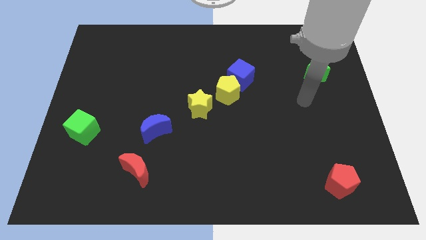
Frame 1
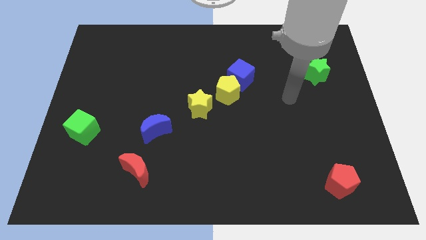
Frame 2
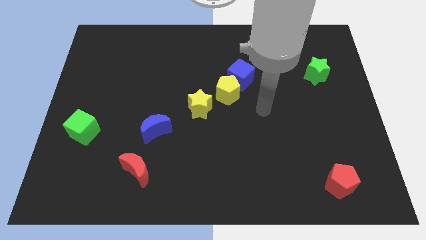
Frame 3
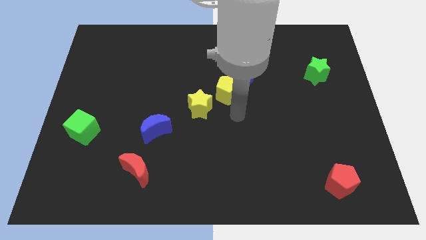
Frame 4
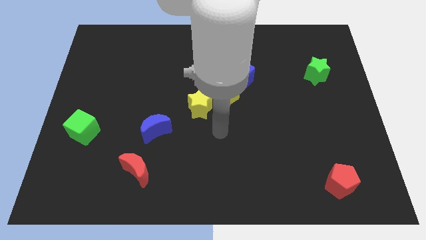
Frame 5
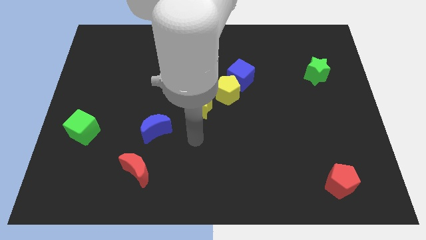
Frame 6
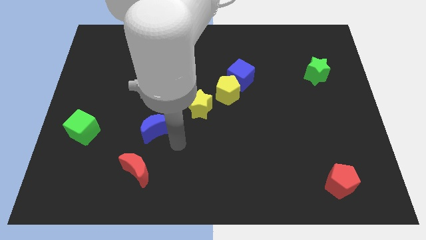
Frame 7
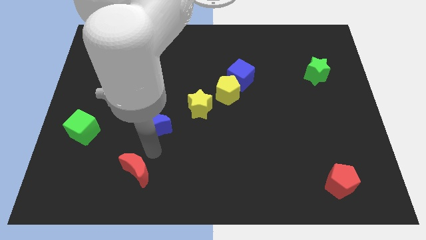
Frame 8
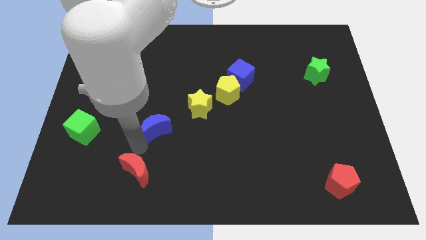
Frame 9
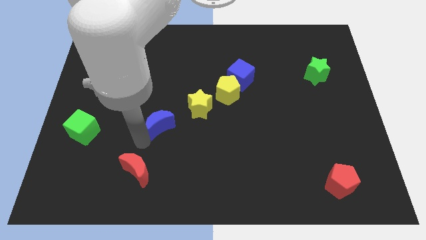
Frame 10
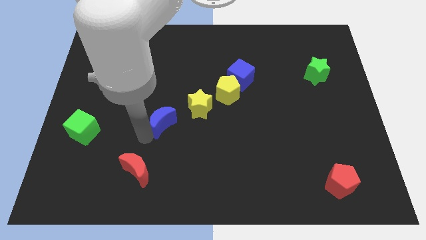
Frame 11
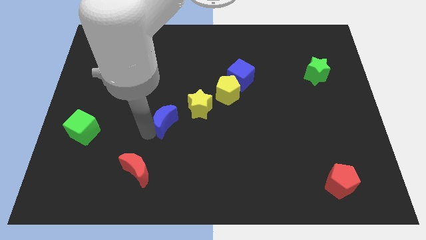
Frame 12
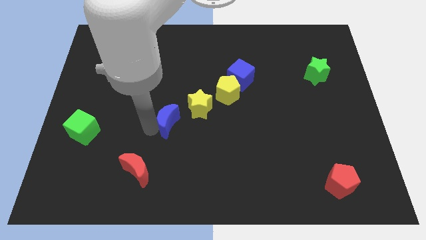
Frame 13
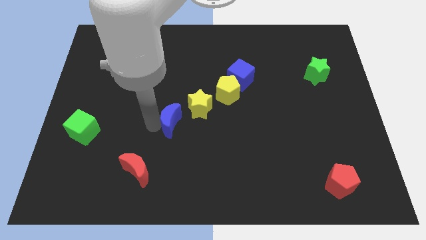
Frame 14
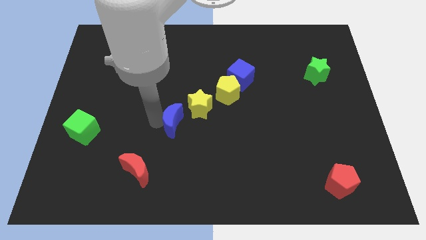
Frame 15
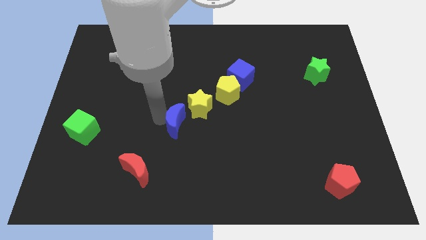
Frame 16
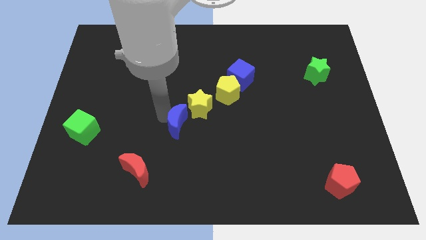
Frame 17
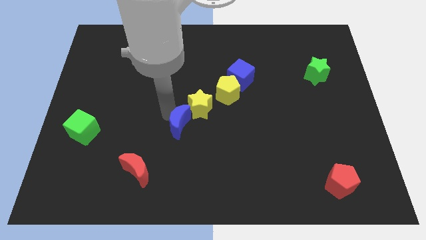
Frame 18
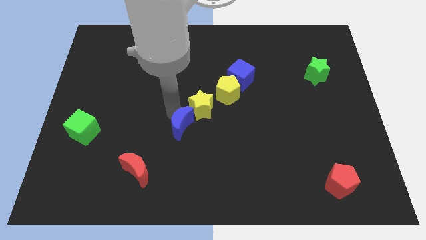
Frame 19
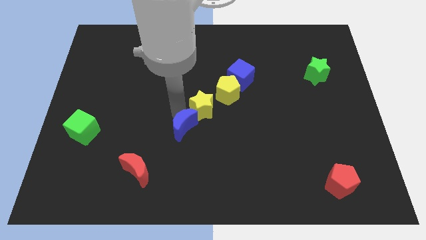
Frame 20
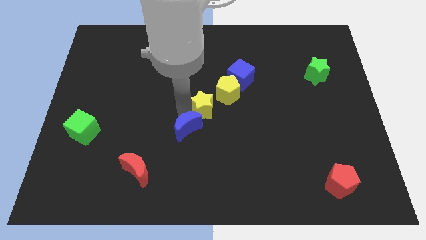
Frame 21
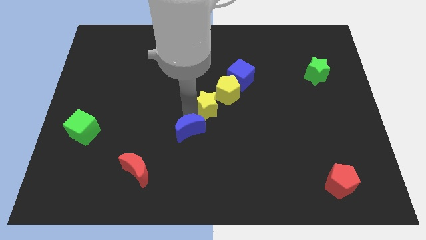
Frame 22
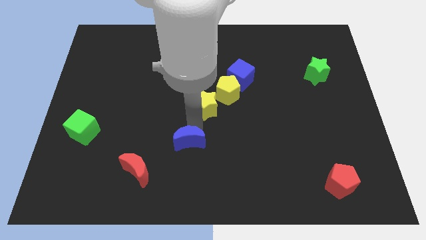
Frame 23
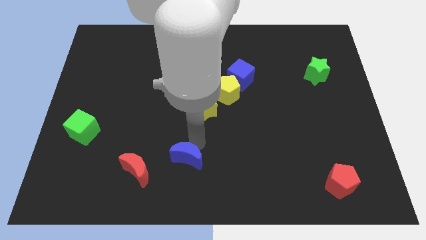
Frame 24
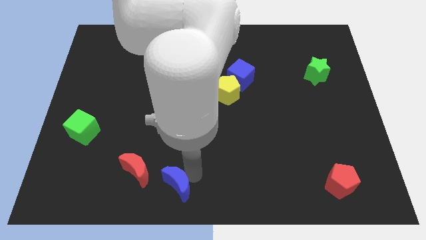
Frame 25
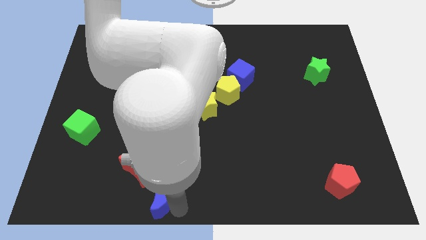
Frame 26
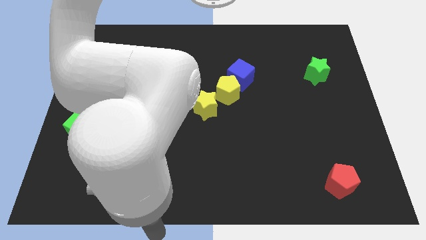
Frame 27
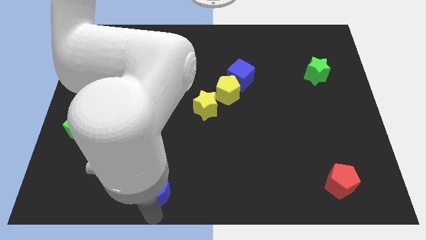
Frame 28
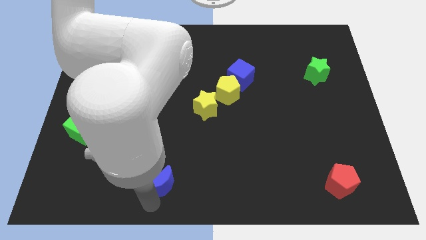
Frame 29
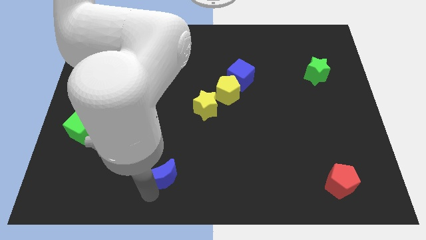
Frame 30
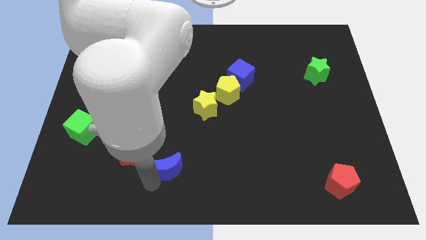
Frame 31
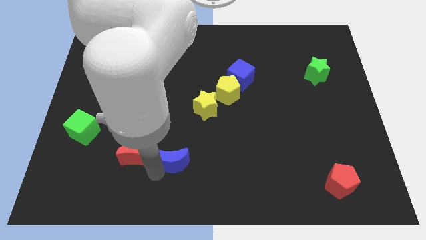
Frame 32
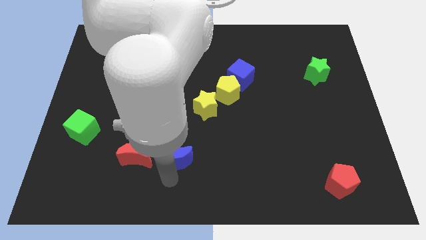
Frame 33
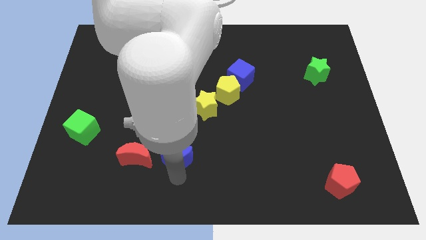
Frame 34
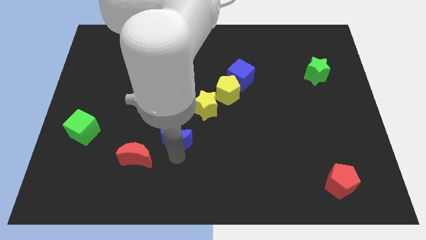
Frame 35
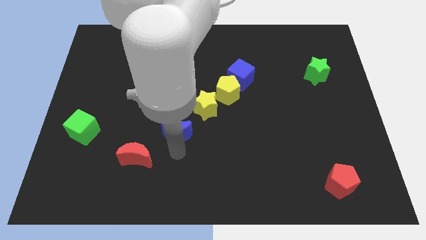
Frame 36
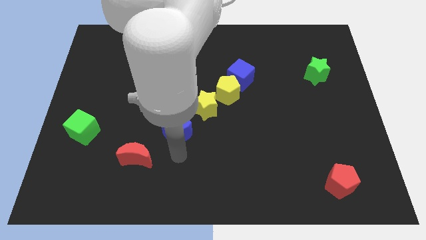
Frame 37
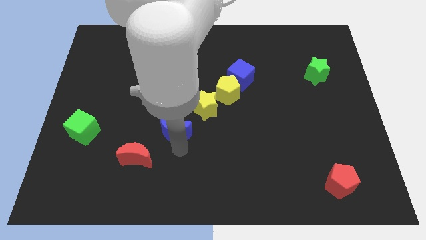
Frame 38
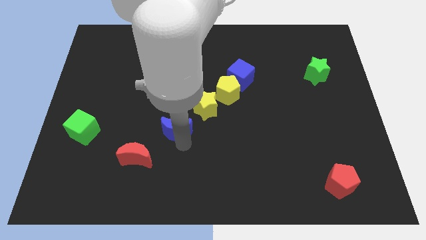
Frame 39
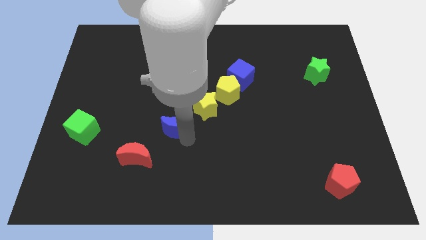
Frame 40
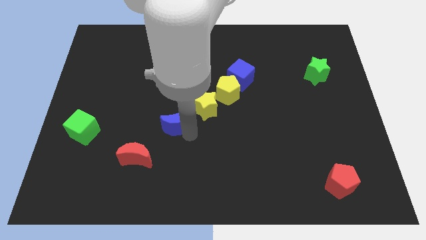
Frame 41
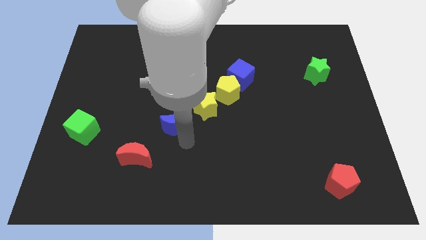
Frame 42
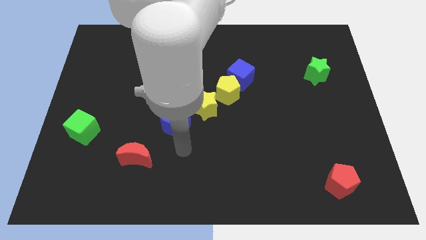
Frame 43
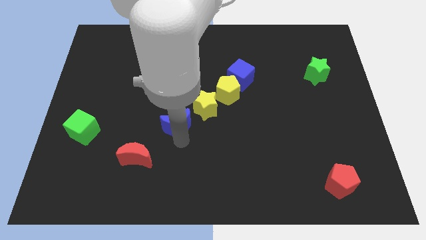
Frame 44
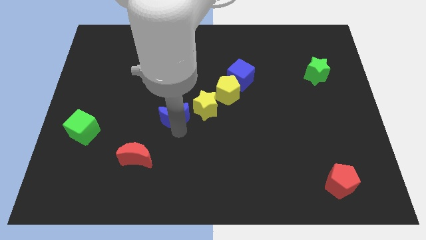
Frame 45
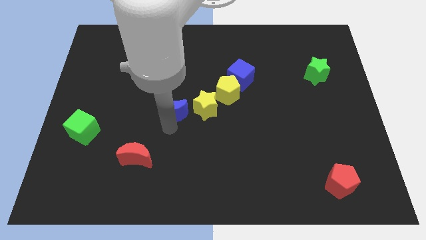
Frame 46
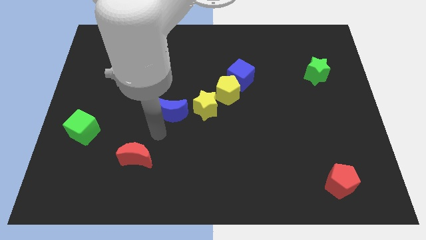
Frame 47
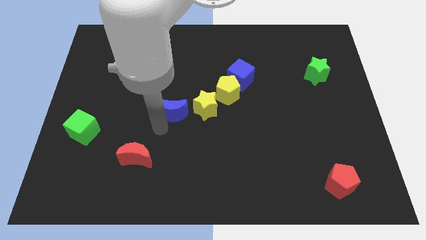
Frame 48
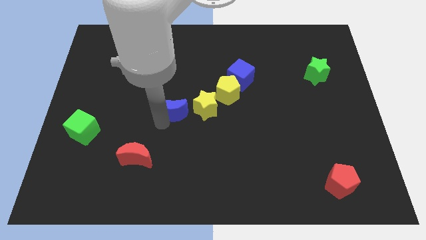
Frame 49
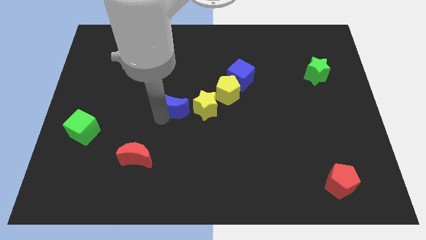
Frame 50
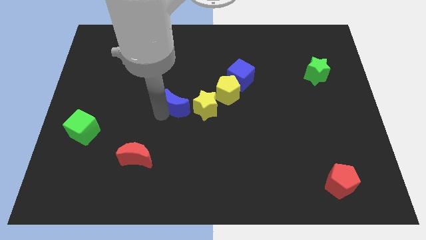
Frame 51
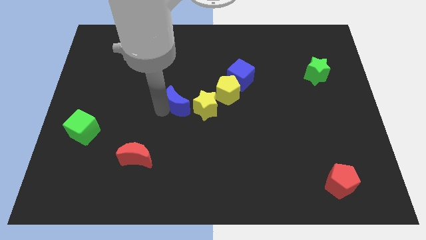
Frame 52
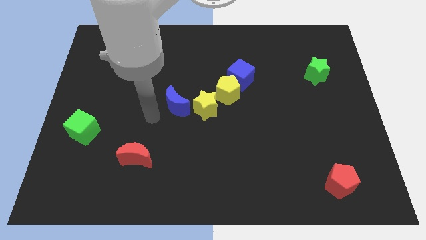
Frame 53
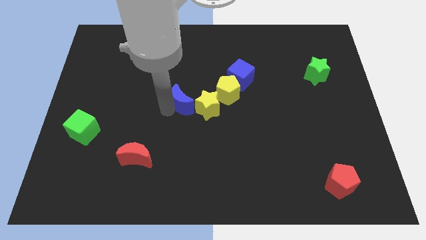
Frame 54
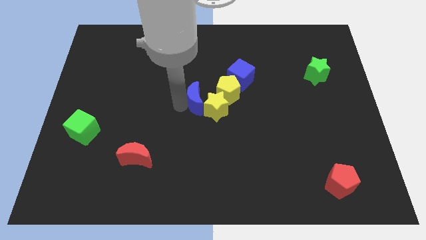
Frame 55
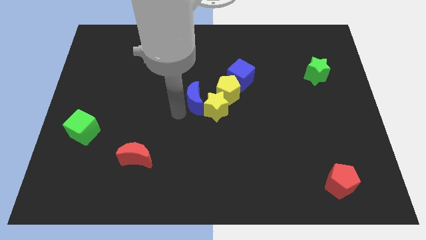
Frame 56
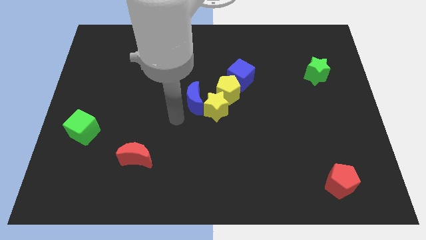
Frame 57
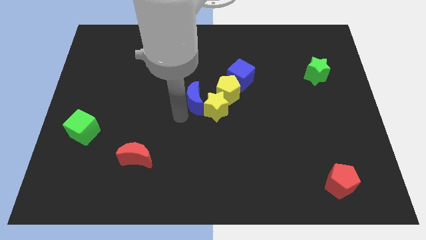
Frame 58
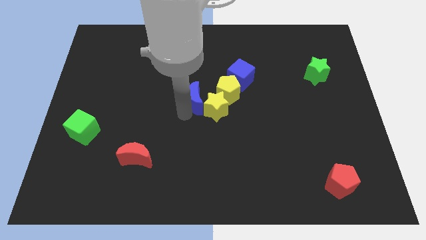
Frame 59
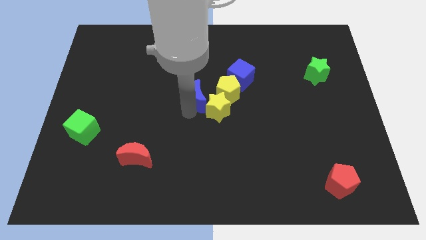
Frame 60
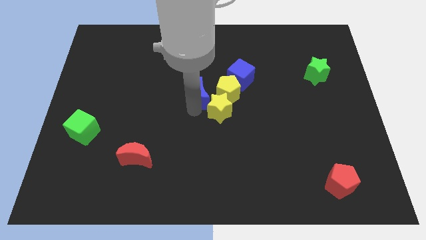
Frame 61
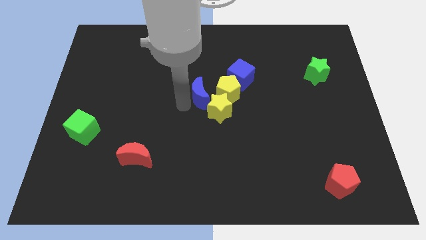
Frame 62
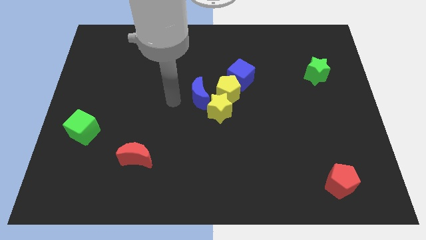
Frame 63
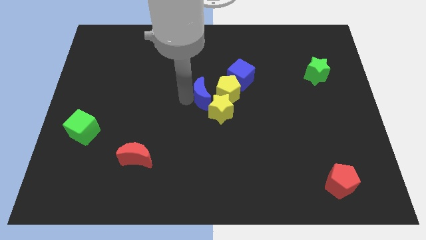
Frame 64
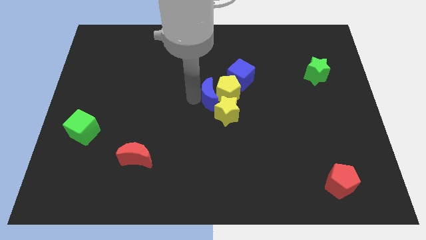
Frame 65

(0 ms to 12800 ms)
move the blue moon next to the yellow pentagon

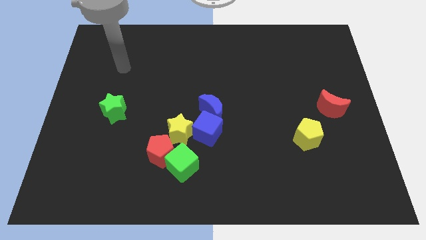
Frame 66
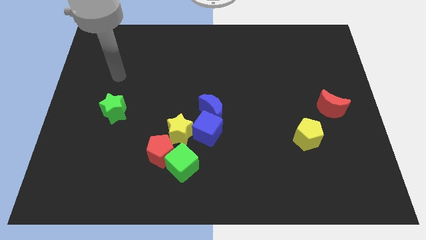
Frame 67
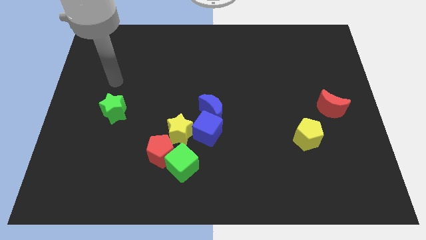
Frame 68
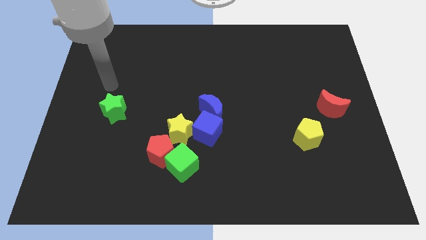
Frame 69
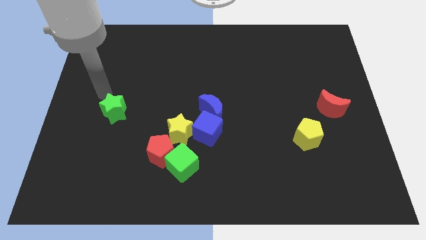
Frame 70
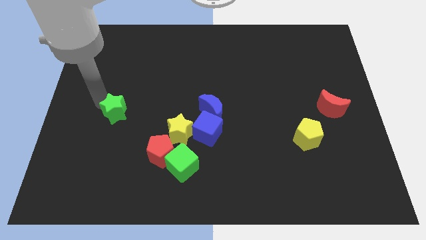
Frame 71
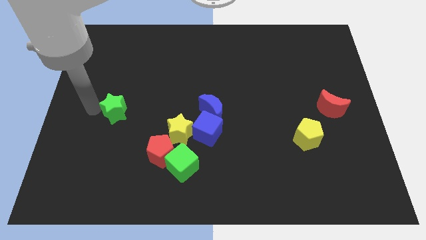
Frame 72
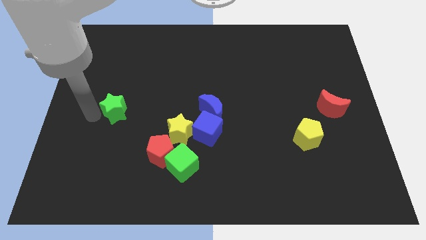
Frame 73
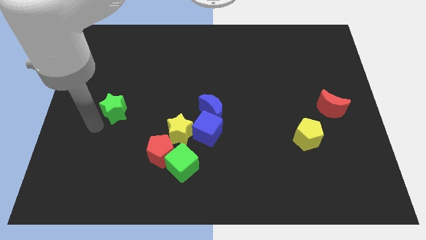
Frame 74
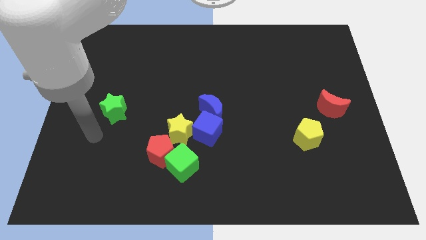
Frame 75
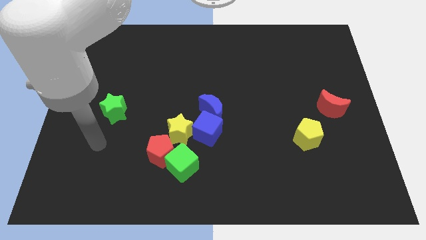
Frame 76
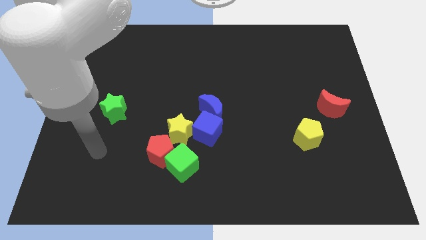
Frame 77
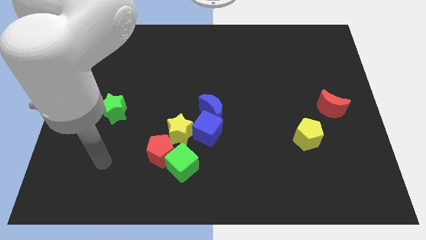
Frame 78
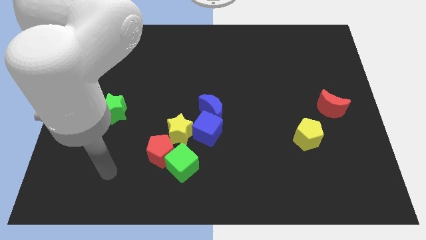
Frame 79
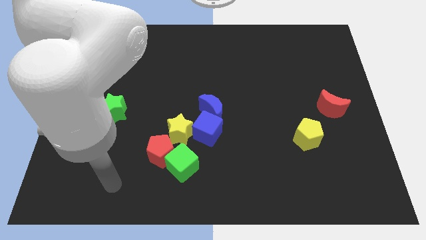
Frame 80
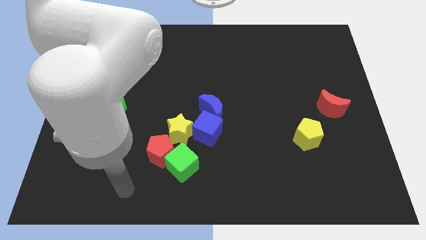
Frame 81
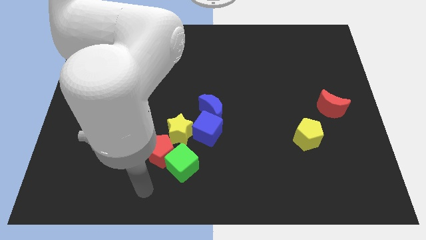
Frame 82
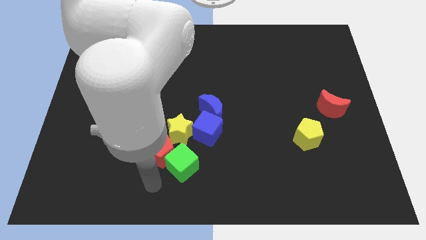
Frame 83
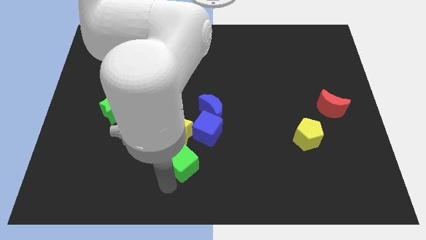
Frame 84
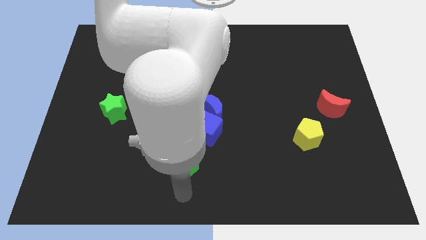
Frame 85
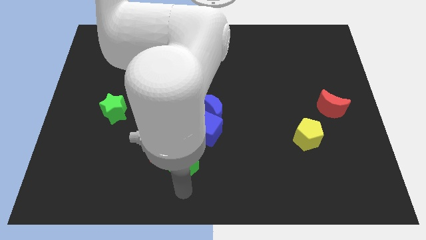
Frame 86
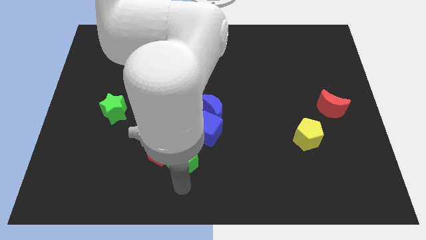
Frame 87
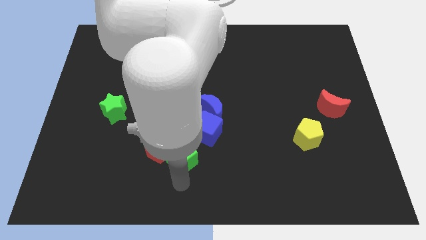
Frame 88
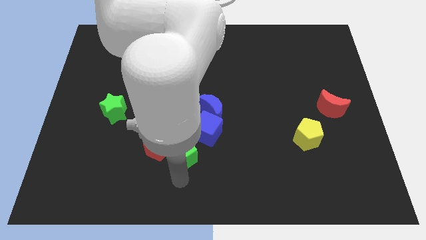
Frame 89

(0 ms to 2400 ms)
move the green cube towards the yellow star
